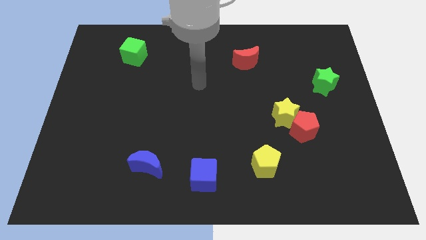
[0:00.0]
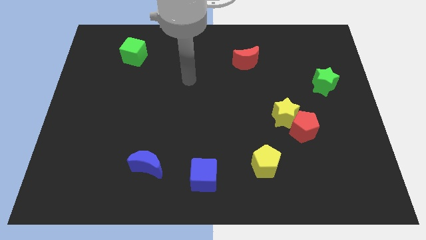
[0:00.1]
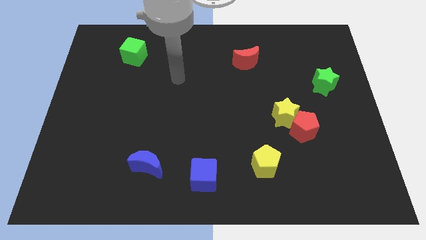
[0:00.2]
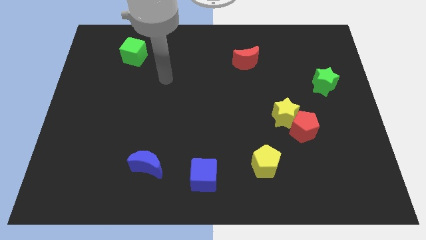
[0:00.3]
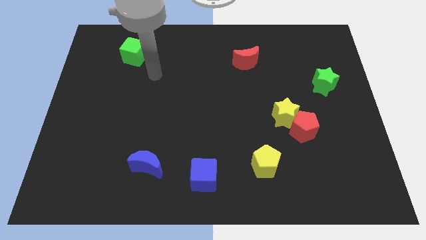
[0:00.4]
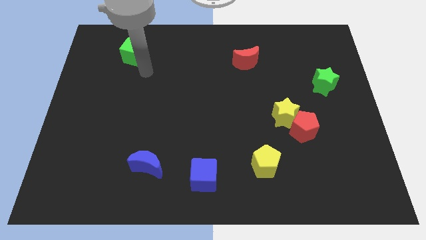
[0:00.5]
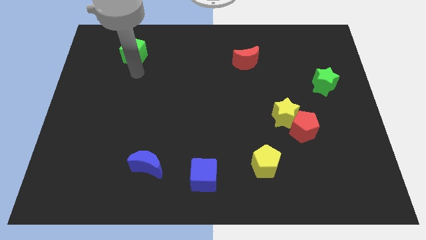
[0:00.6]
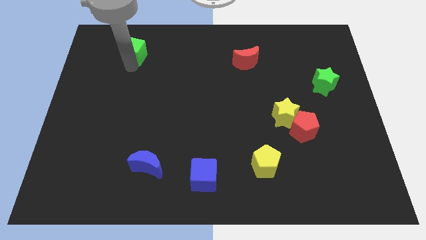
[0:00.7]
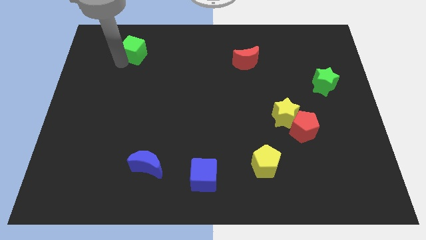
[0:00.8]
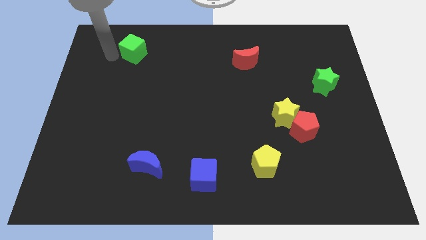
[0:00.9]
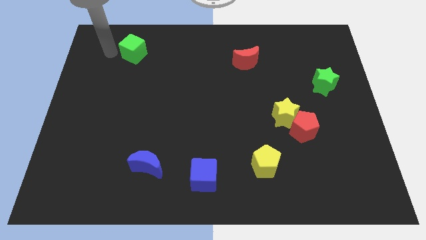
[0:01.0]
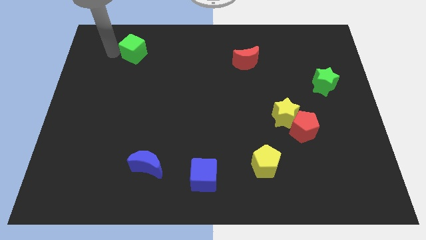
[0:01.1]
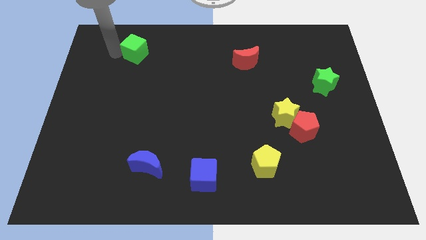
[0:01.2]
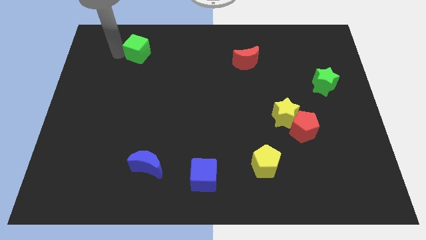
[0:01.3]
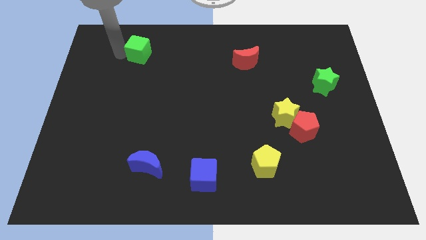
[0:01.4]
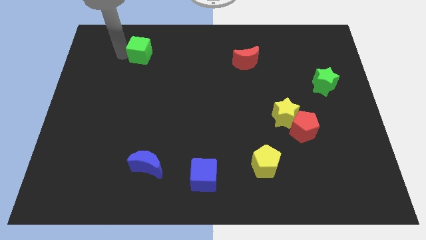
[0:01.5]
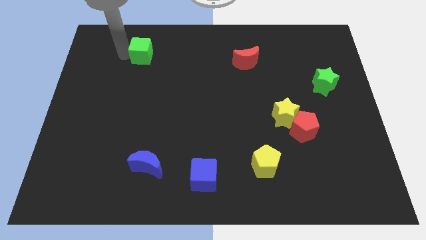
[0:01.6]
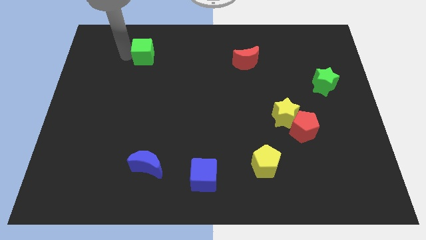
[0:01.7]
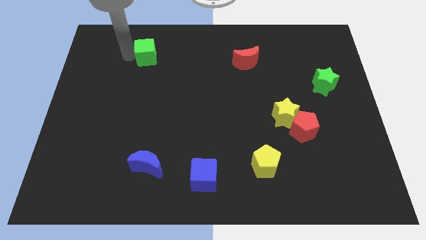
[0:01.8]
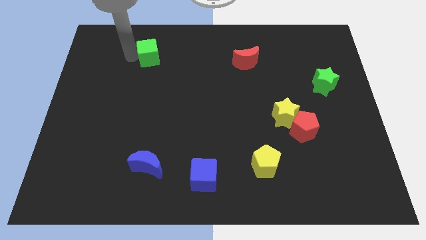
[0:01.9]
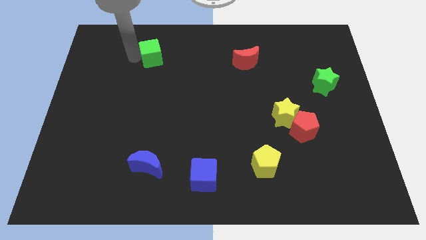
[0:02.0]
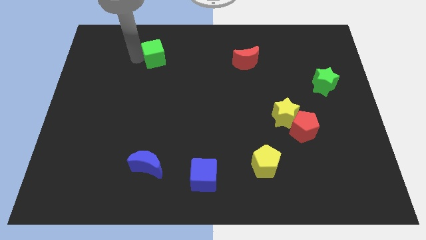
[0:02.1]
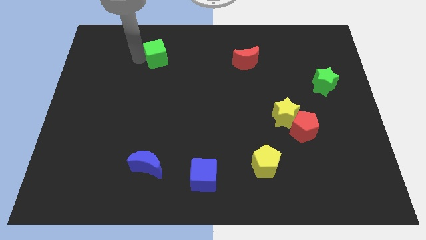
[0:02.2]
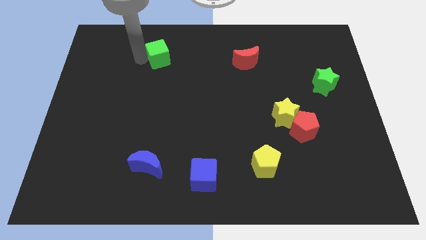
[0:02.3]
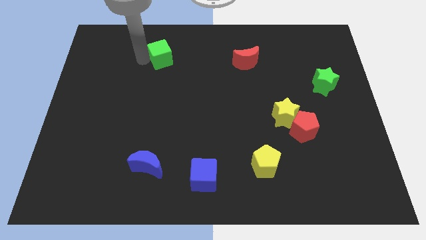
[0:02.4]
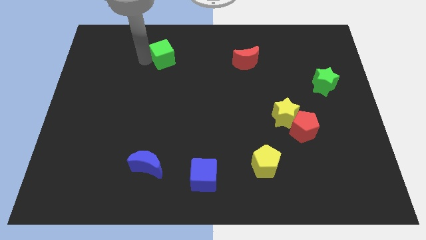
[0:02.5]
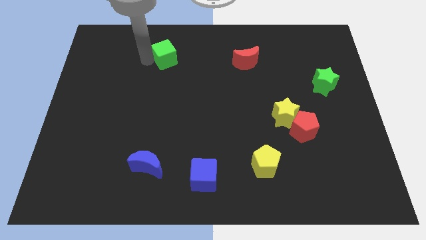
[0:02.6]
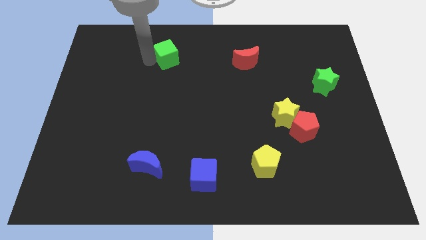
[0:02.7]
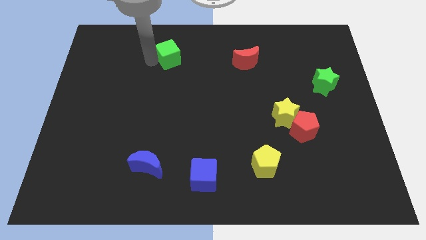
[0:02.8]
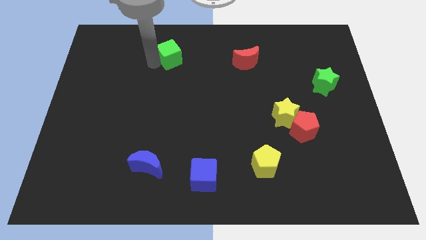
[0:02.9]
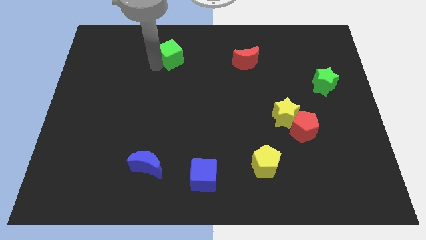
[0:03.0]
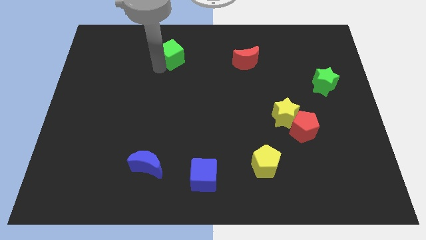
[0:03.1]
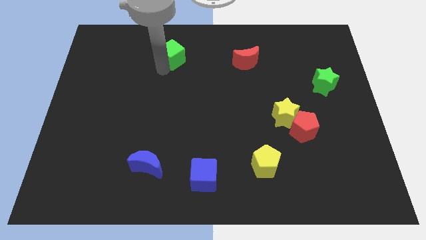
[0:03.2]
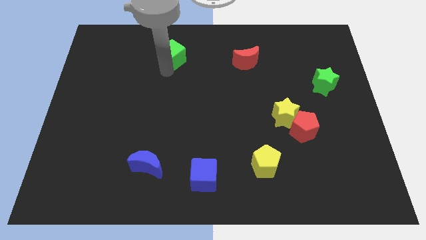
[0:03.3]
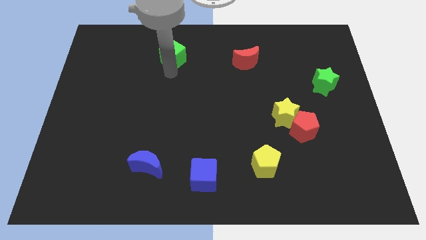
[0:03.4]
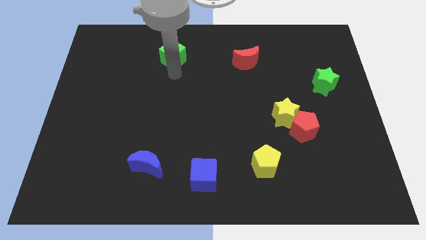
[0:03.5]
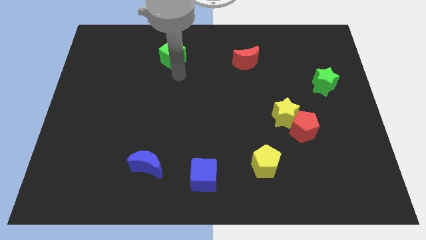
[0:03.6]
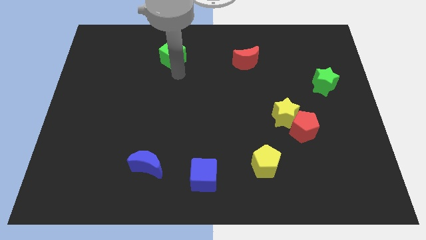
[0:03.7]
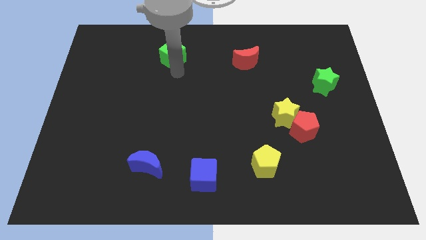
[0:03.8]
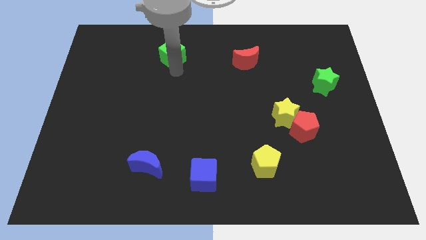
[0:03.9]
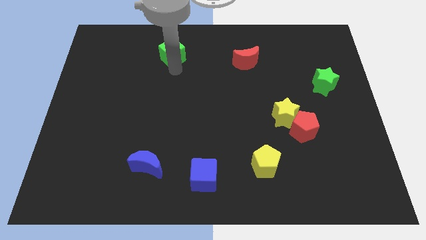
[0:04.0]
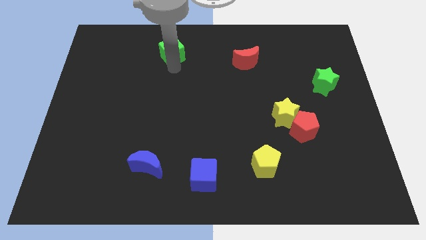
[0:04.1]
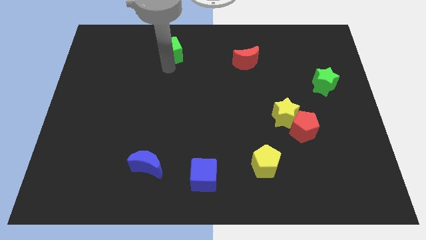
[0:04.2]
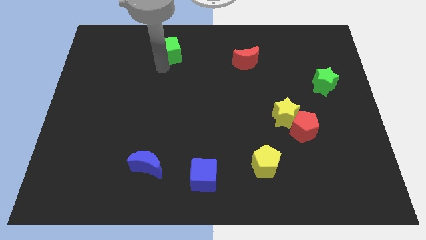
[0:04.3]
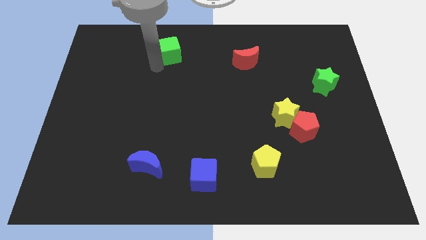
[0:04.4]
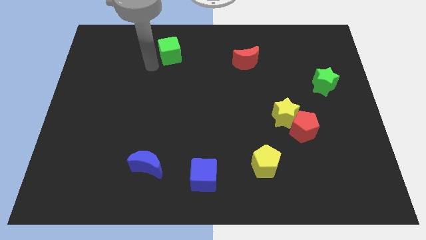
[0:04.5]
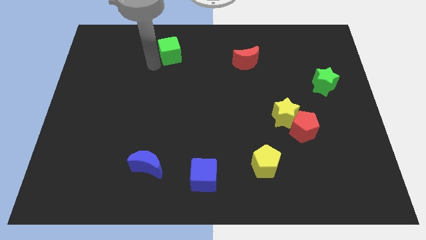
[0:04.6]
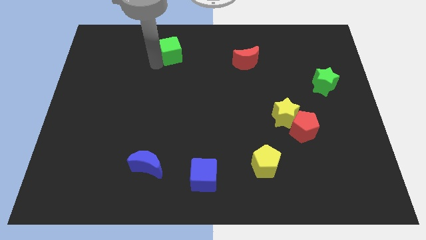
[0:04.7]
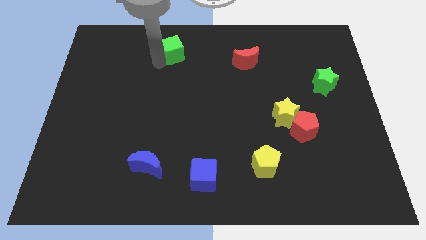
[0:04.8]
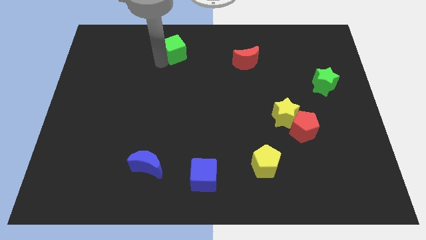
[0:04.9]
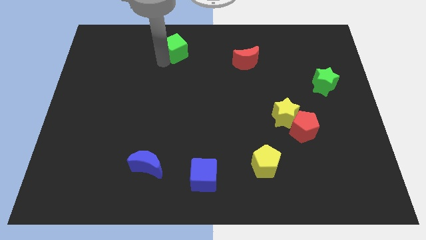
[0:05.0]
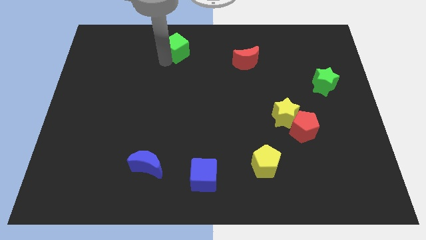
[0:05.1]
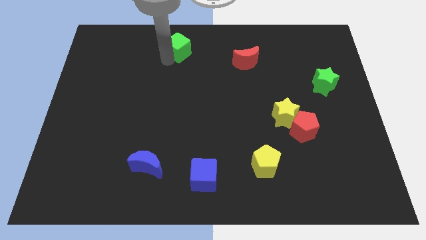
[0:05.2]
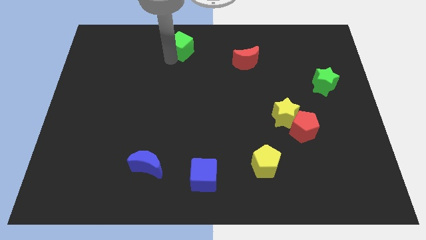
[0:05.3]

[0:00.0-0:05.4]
put the green cube to the top side

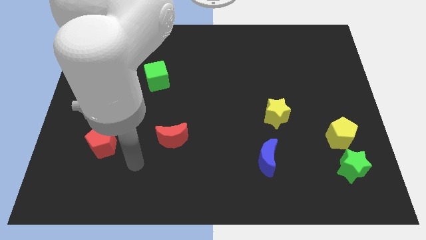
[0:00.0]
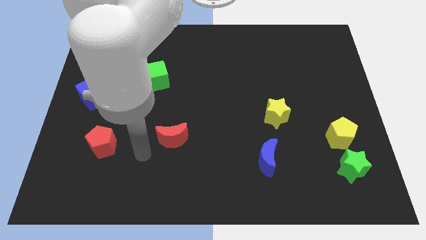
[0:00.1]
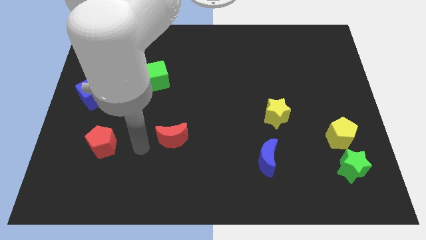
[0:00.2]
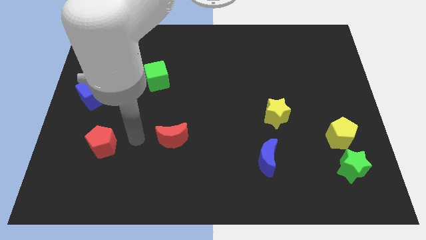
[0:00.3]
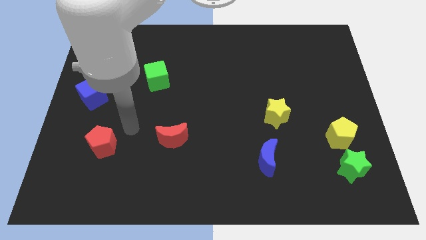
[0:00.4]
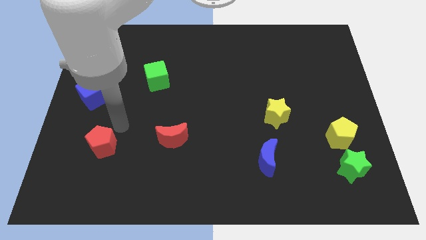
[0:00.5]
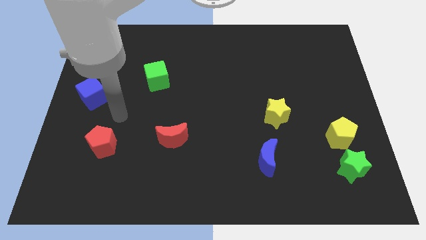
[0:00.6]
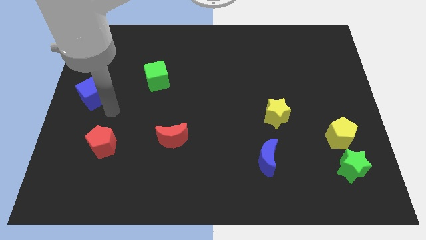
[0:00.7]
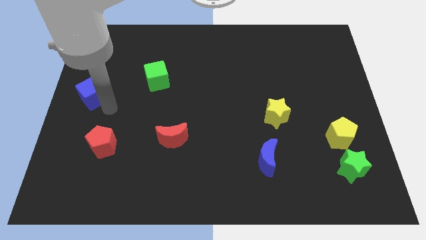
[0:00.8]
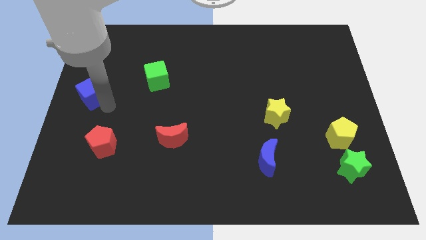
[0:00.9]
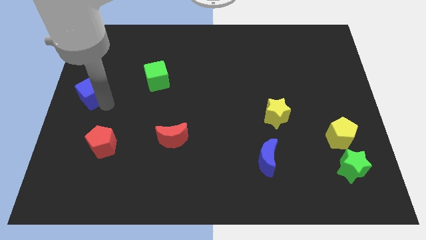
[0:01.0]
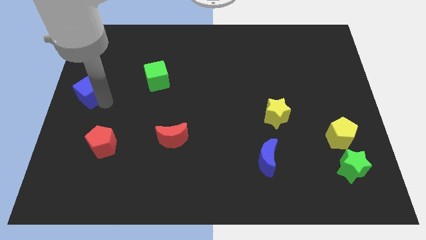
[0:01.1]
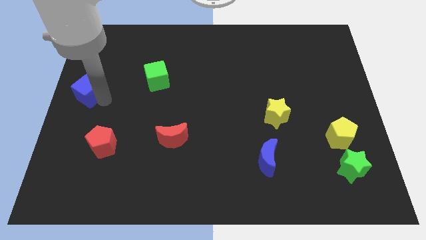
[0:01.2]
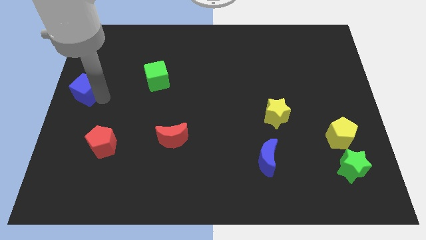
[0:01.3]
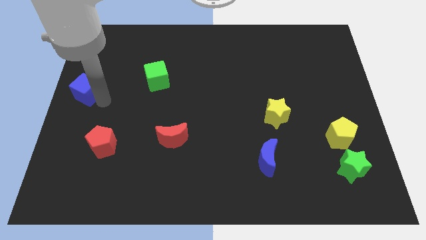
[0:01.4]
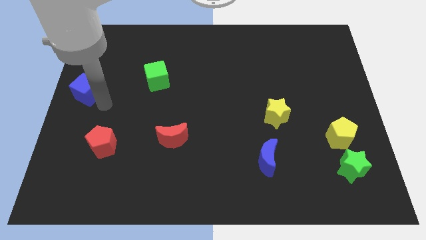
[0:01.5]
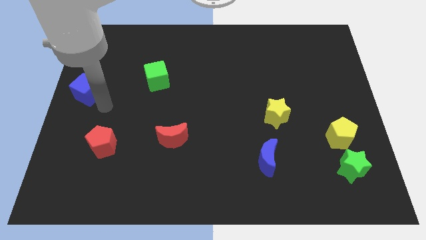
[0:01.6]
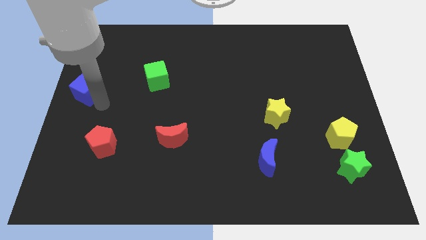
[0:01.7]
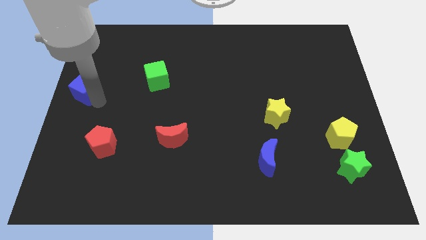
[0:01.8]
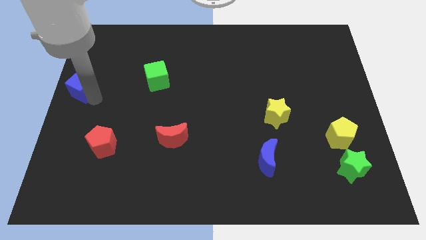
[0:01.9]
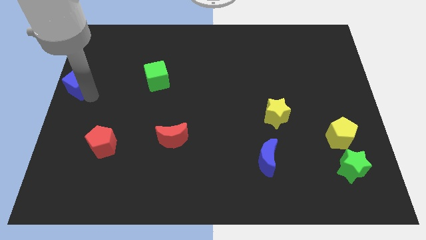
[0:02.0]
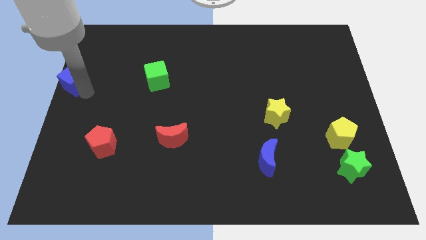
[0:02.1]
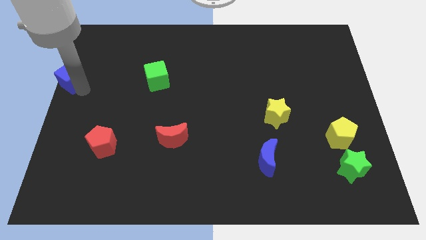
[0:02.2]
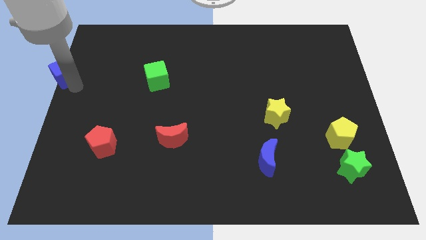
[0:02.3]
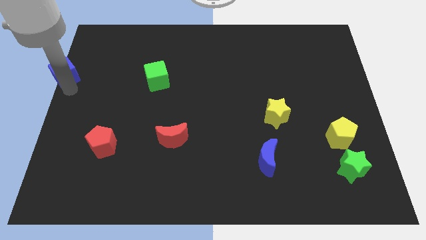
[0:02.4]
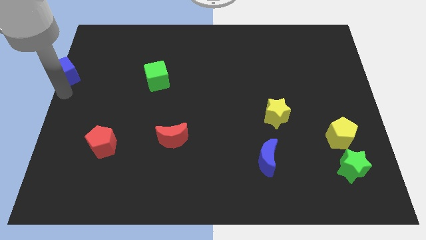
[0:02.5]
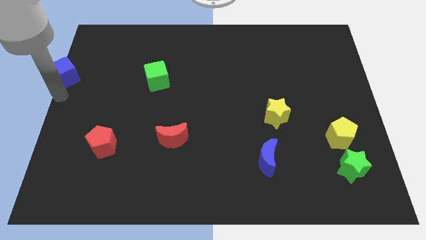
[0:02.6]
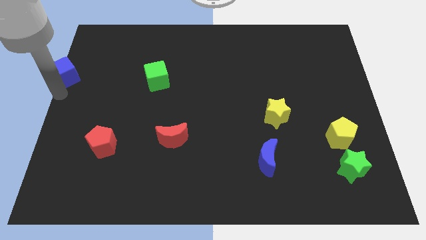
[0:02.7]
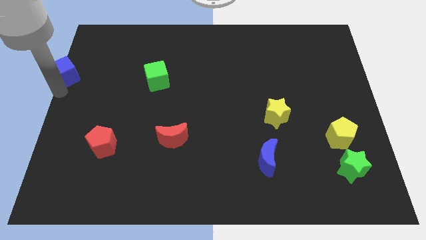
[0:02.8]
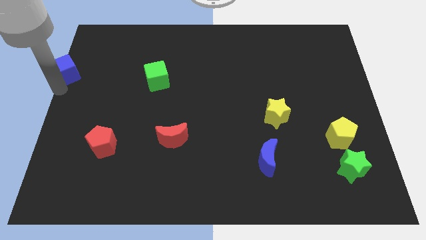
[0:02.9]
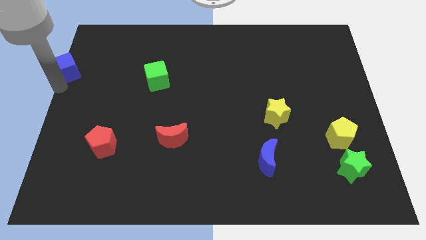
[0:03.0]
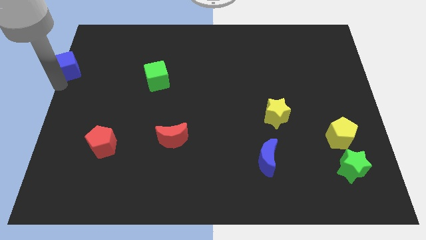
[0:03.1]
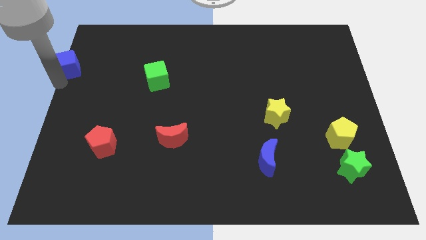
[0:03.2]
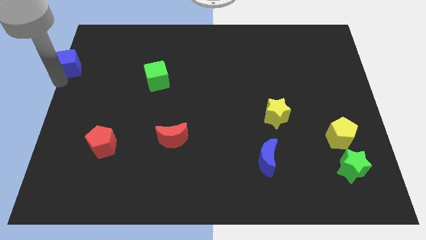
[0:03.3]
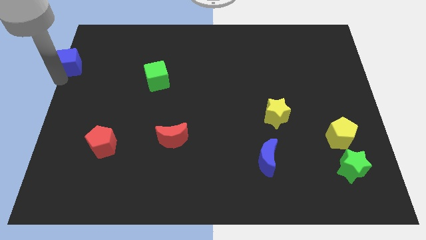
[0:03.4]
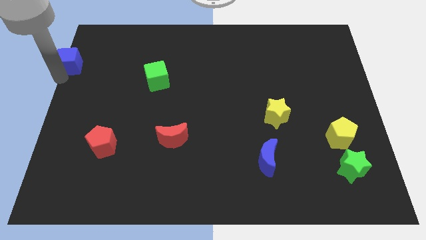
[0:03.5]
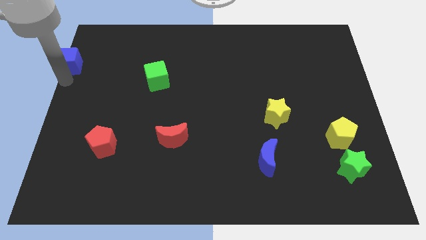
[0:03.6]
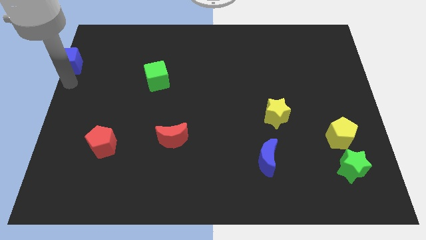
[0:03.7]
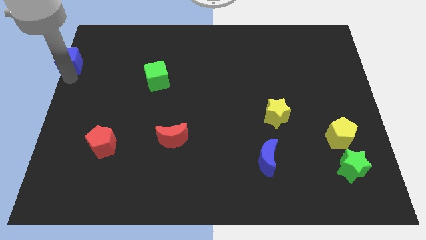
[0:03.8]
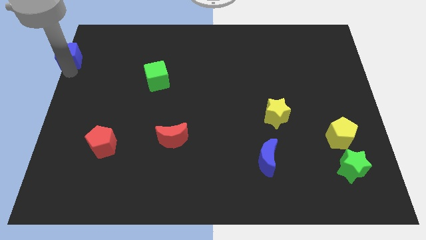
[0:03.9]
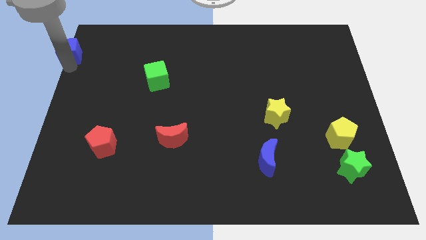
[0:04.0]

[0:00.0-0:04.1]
put the blue cube to the upper left corner
